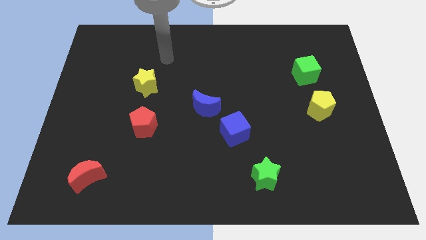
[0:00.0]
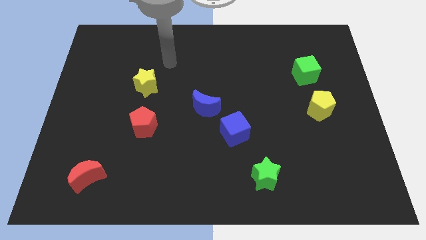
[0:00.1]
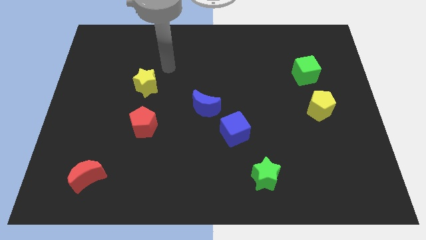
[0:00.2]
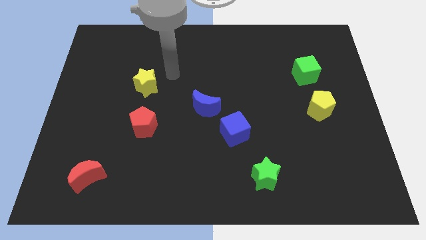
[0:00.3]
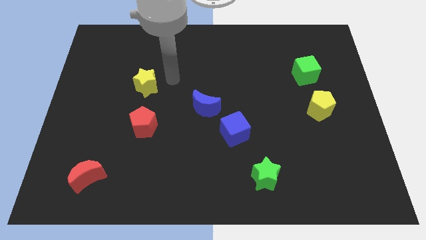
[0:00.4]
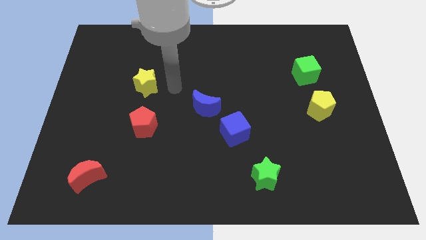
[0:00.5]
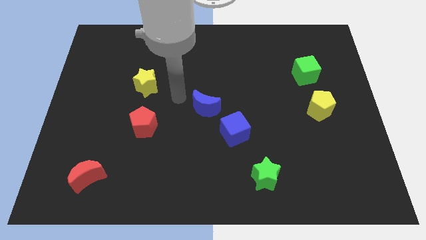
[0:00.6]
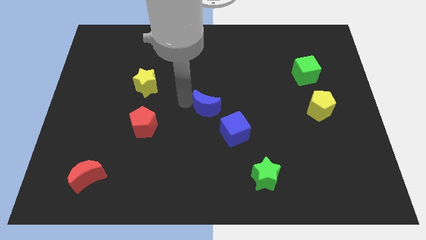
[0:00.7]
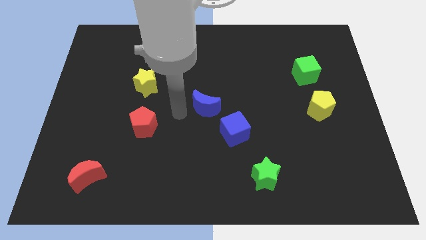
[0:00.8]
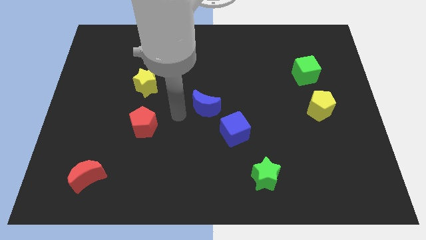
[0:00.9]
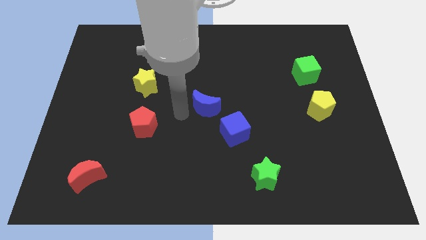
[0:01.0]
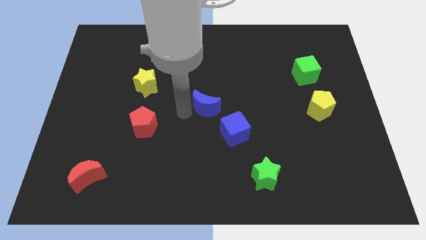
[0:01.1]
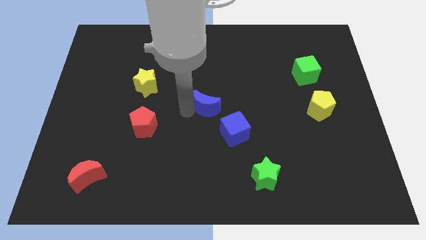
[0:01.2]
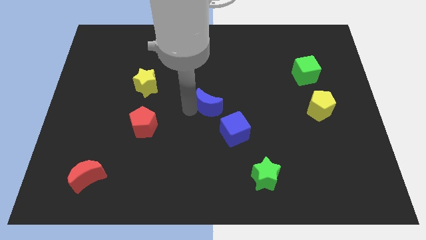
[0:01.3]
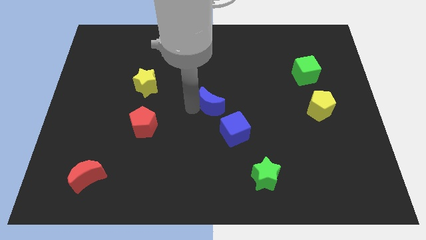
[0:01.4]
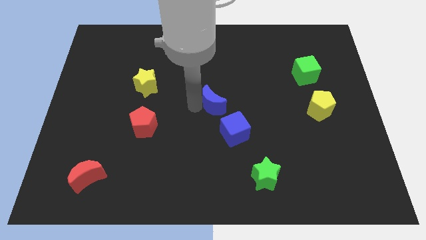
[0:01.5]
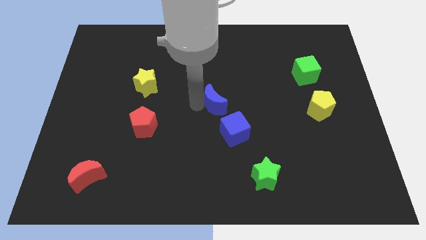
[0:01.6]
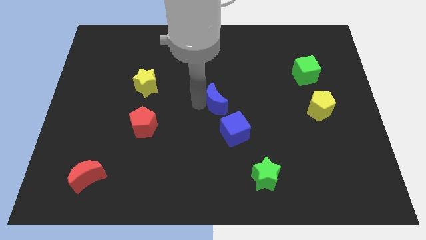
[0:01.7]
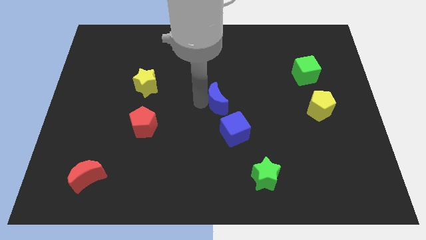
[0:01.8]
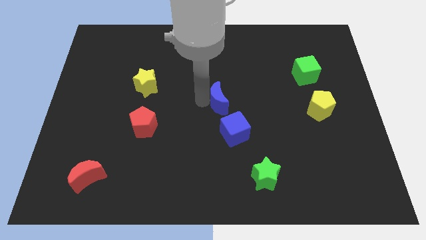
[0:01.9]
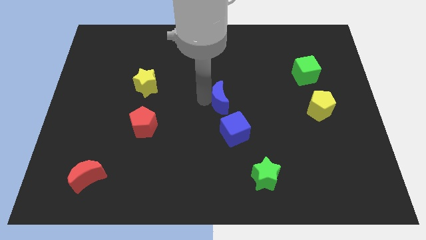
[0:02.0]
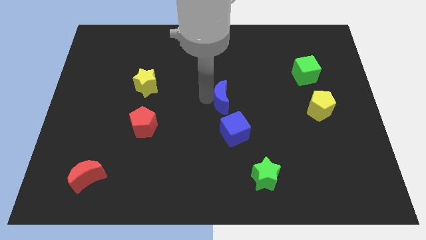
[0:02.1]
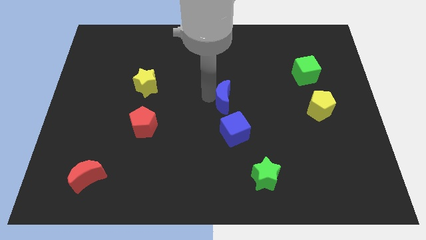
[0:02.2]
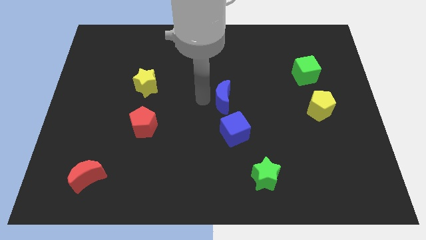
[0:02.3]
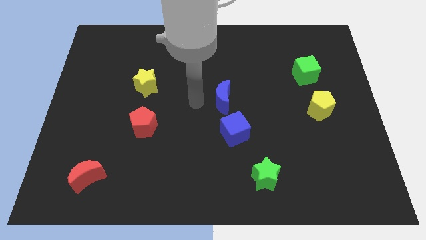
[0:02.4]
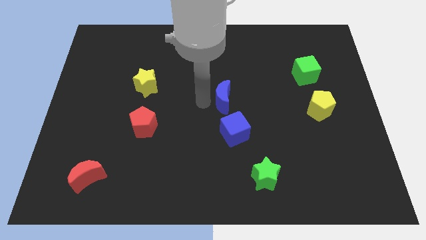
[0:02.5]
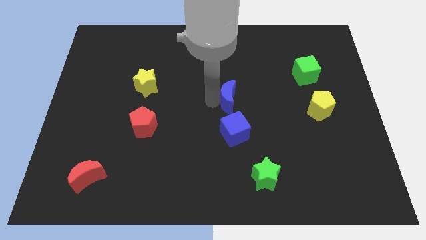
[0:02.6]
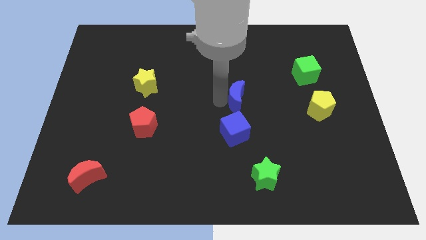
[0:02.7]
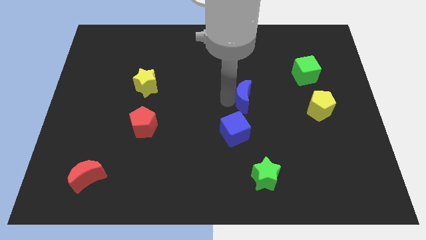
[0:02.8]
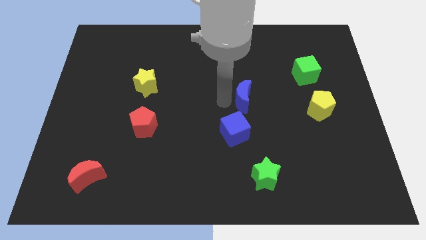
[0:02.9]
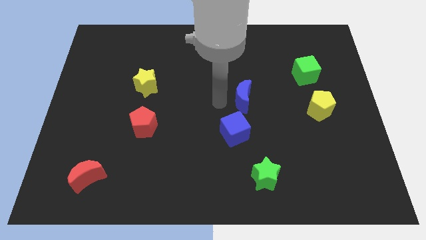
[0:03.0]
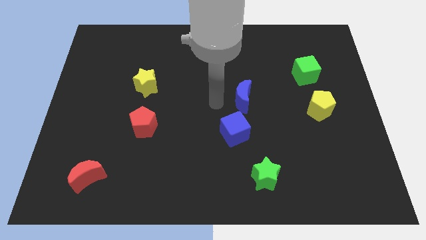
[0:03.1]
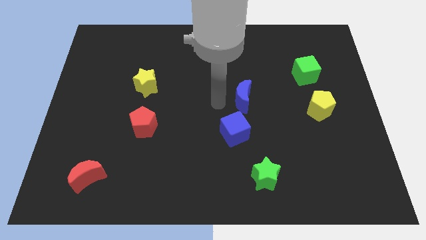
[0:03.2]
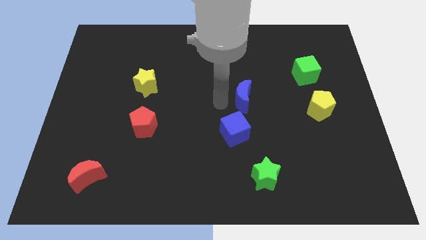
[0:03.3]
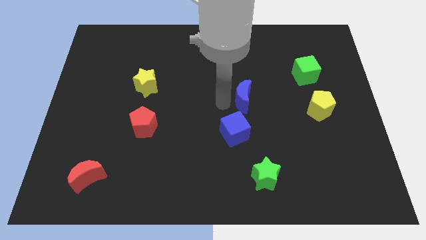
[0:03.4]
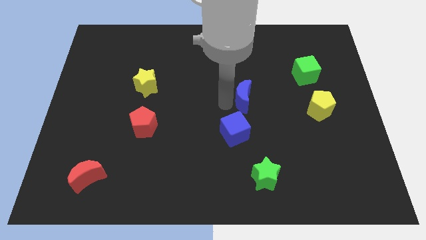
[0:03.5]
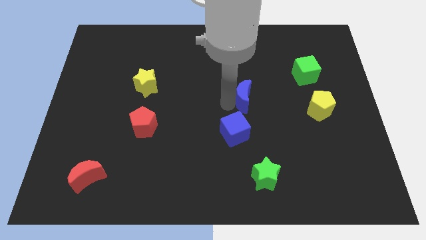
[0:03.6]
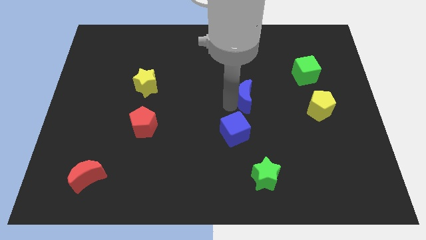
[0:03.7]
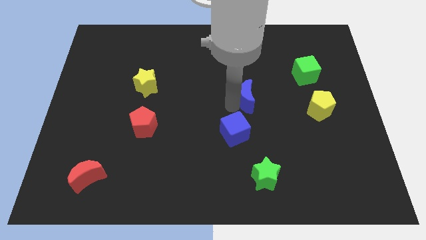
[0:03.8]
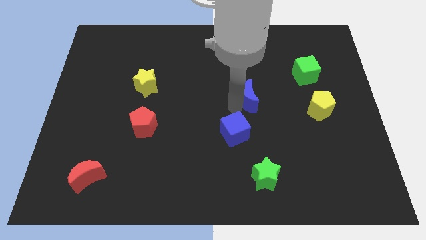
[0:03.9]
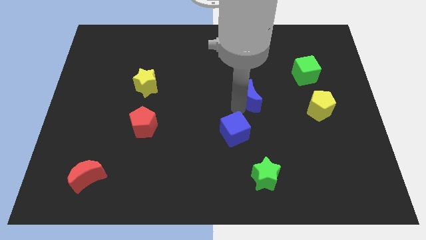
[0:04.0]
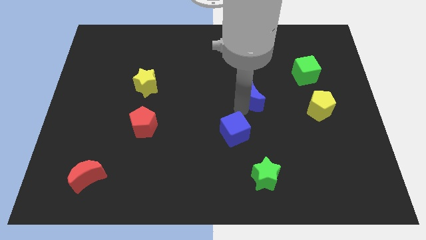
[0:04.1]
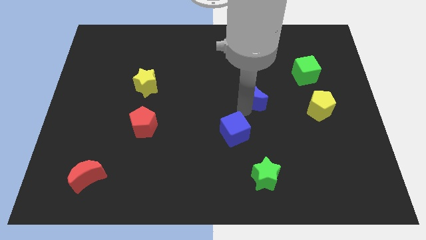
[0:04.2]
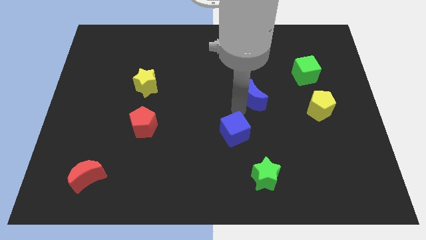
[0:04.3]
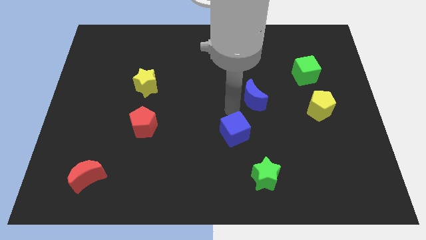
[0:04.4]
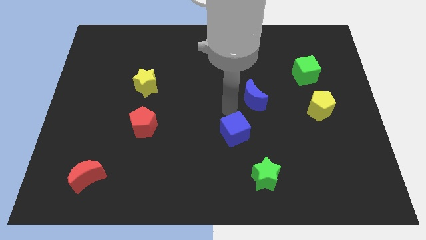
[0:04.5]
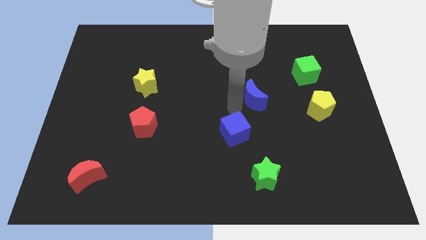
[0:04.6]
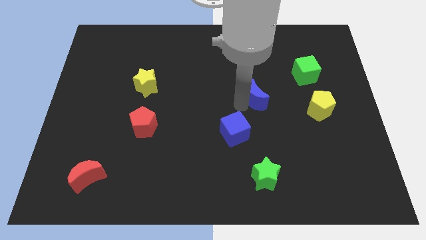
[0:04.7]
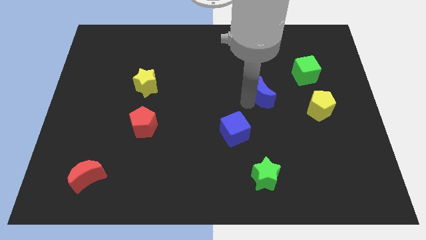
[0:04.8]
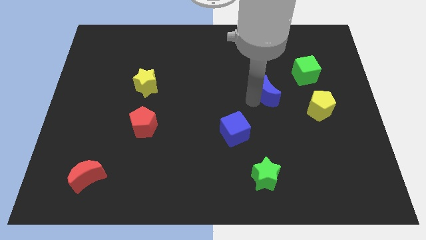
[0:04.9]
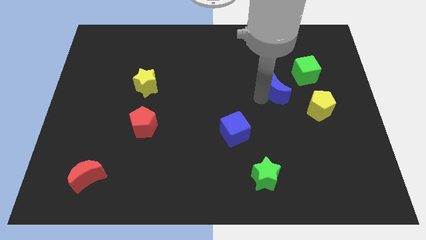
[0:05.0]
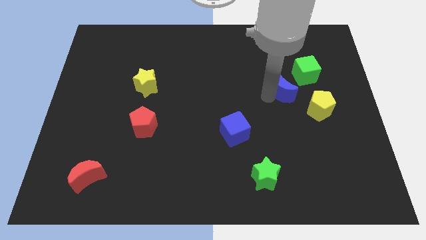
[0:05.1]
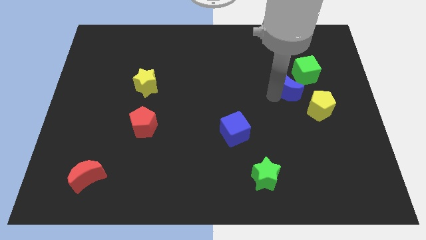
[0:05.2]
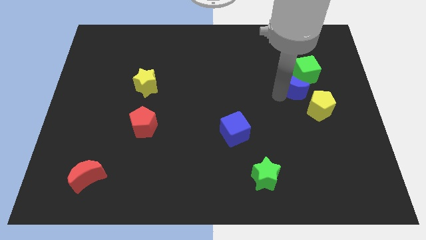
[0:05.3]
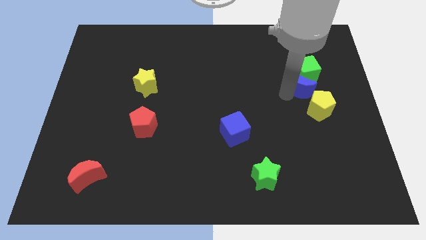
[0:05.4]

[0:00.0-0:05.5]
slide the blue moon towards the green cube

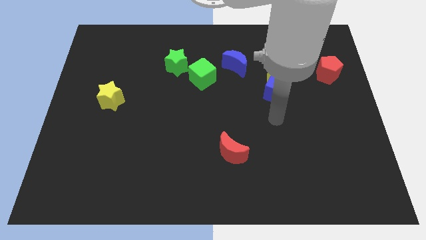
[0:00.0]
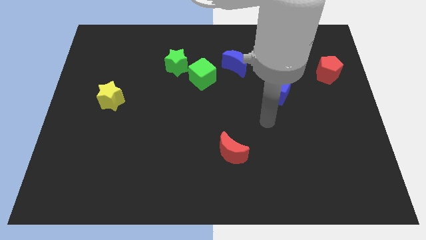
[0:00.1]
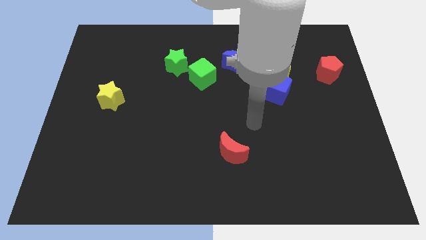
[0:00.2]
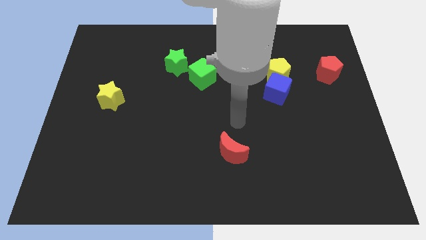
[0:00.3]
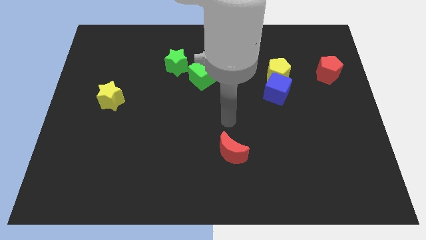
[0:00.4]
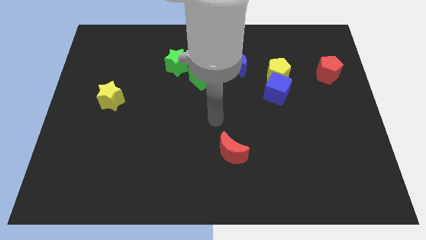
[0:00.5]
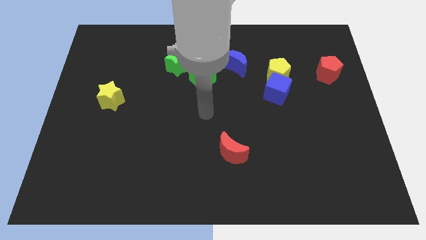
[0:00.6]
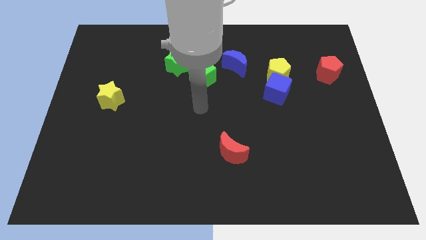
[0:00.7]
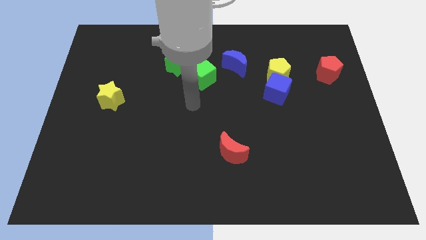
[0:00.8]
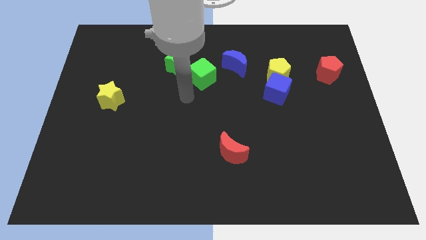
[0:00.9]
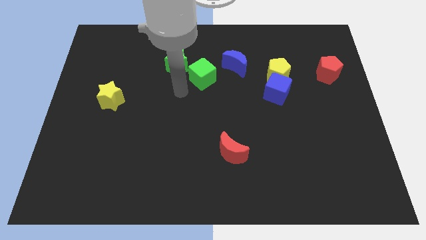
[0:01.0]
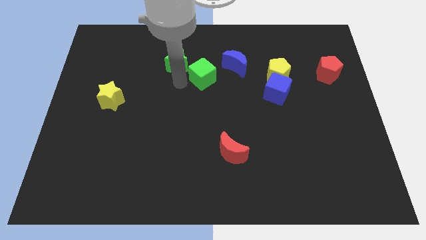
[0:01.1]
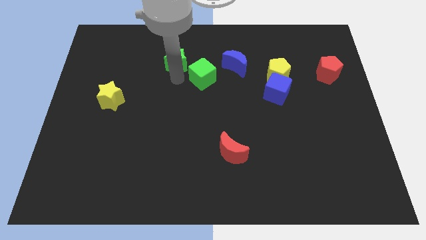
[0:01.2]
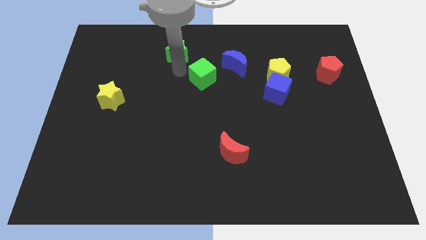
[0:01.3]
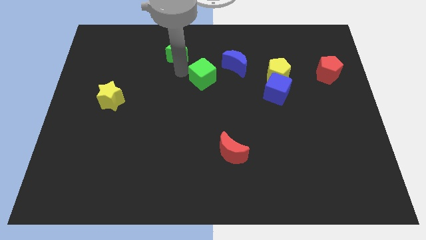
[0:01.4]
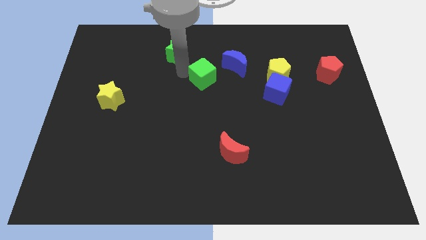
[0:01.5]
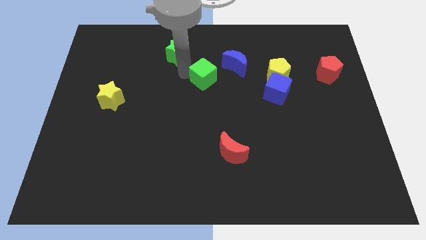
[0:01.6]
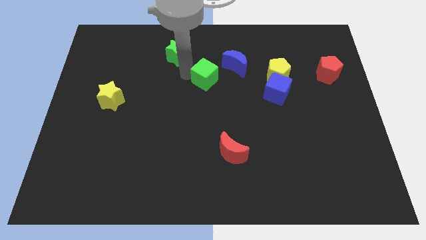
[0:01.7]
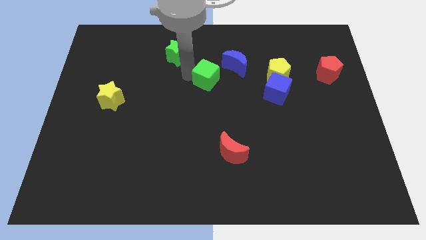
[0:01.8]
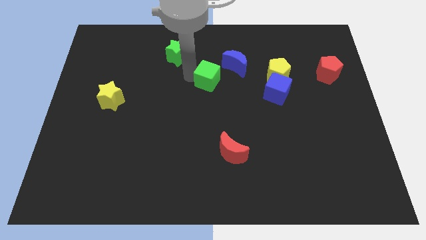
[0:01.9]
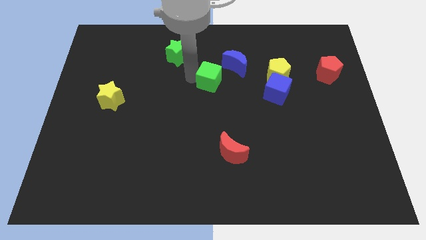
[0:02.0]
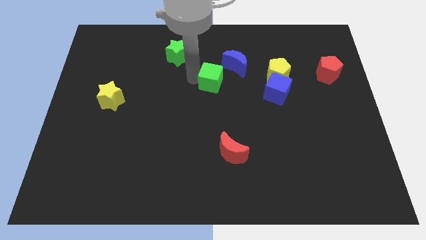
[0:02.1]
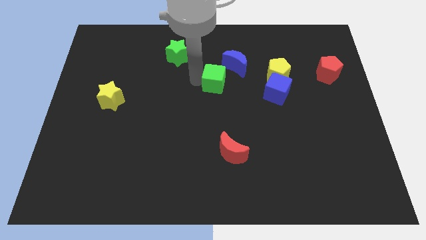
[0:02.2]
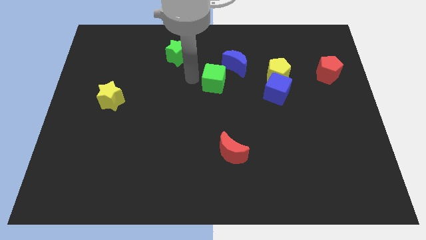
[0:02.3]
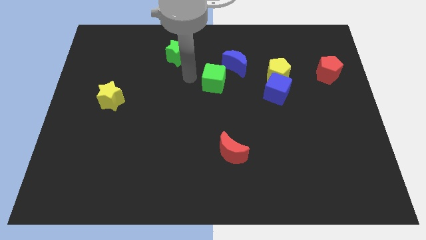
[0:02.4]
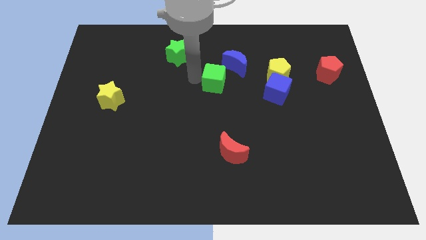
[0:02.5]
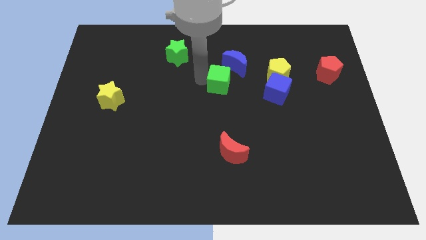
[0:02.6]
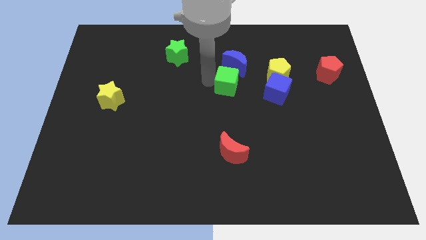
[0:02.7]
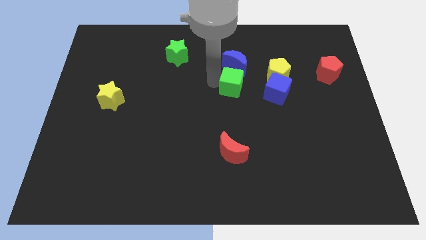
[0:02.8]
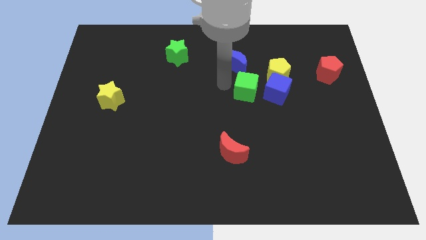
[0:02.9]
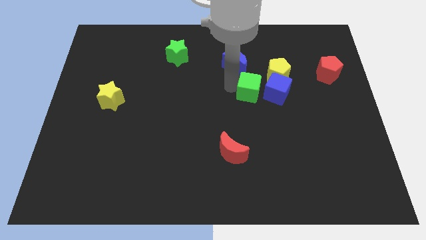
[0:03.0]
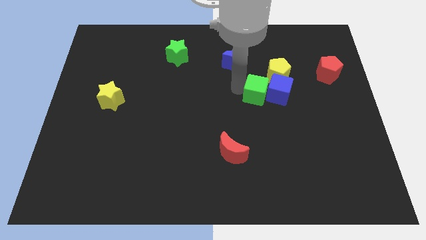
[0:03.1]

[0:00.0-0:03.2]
slide the green cube close to the blue cube
